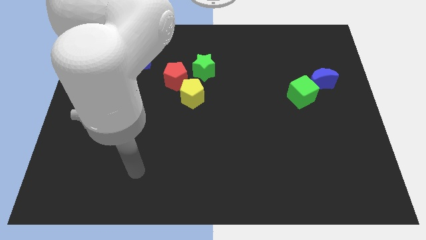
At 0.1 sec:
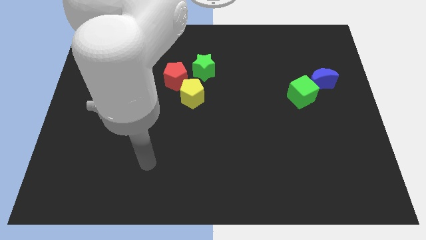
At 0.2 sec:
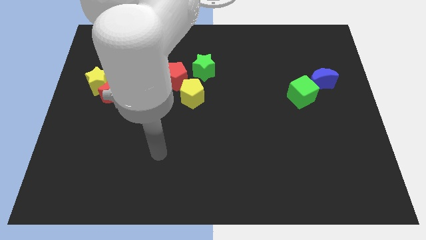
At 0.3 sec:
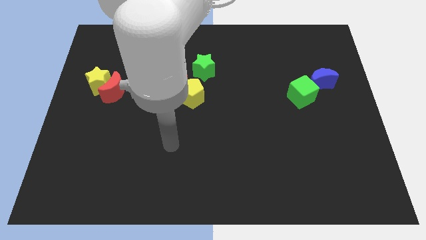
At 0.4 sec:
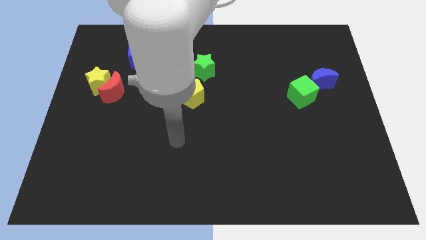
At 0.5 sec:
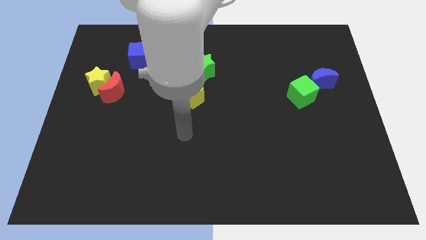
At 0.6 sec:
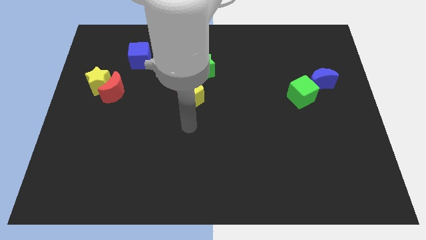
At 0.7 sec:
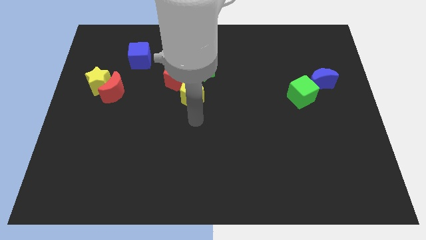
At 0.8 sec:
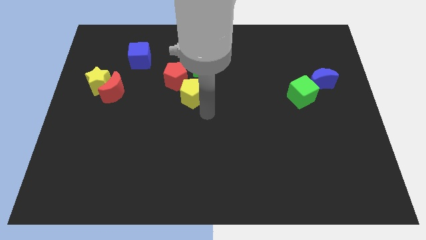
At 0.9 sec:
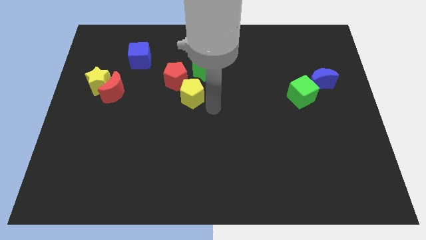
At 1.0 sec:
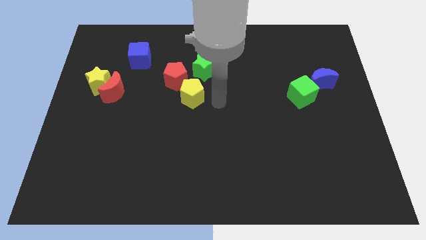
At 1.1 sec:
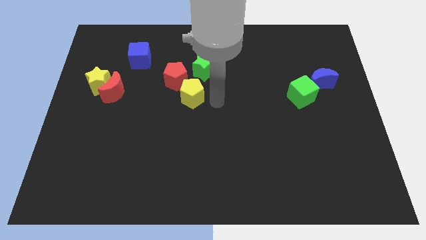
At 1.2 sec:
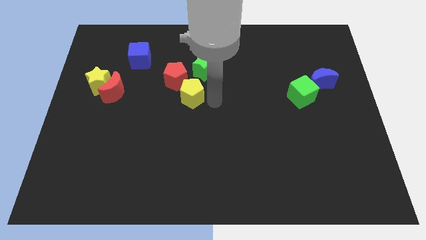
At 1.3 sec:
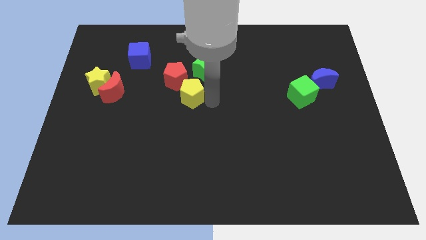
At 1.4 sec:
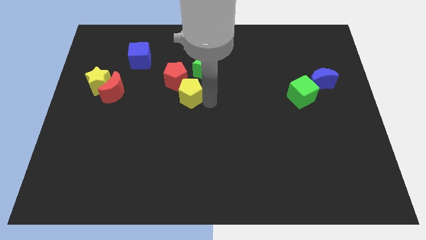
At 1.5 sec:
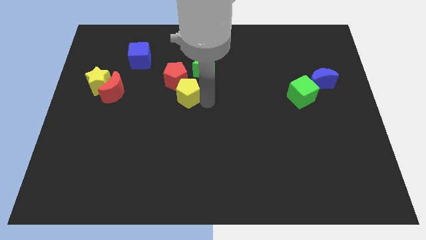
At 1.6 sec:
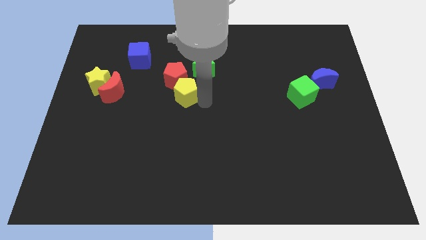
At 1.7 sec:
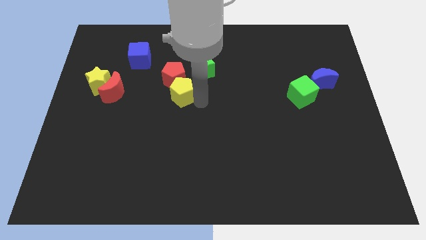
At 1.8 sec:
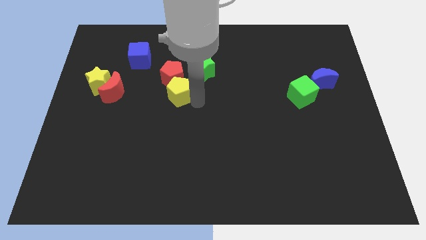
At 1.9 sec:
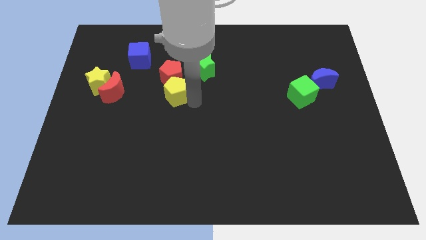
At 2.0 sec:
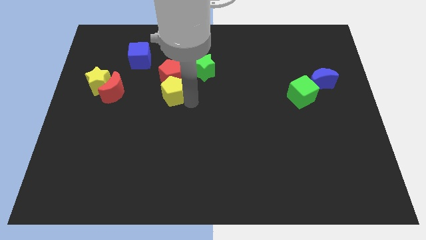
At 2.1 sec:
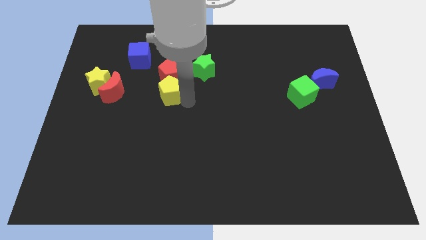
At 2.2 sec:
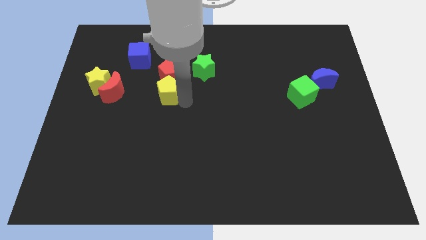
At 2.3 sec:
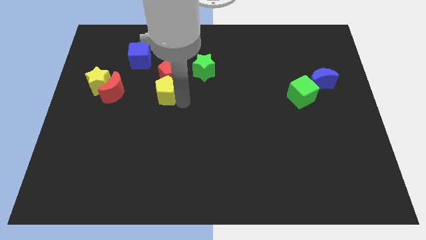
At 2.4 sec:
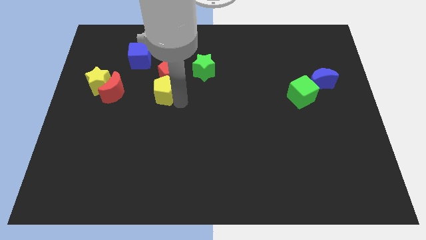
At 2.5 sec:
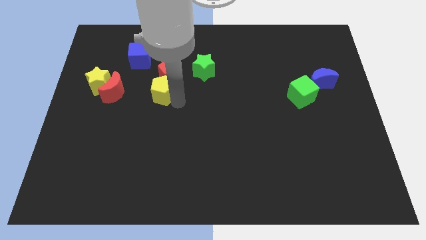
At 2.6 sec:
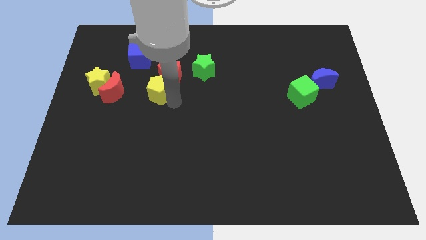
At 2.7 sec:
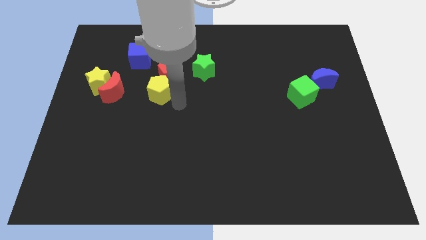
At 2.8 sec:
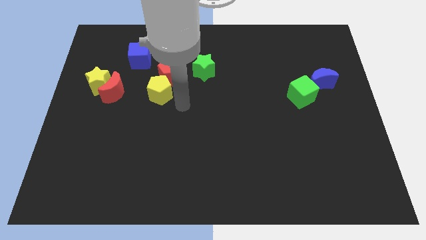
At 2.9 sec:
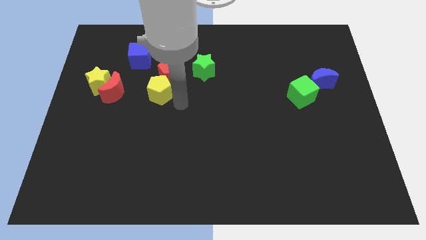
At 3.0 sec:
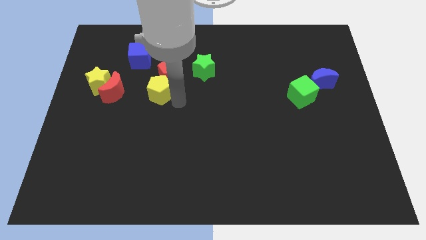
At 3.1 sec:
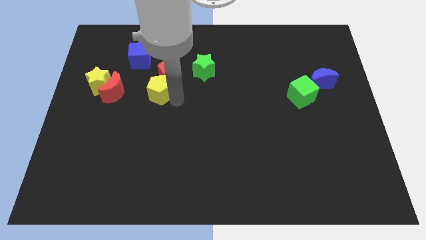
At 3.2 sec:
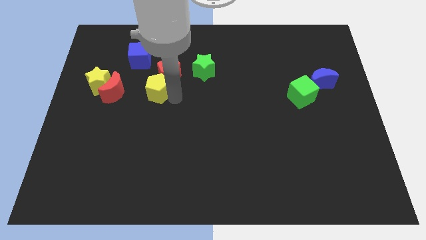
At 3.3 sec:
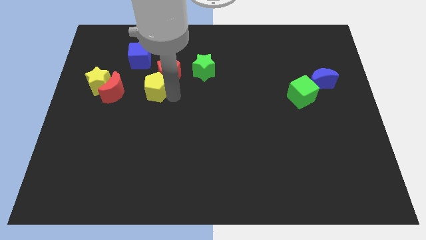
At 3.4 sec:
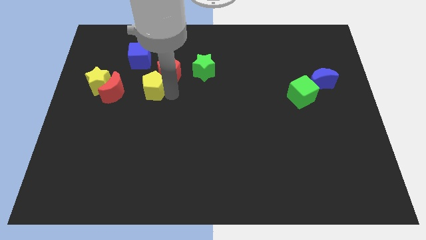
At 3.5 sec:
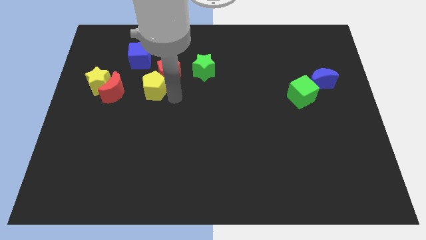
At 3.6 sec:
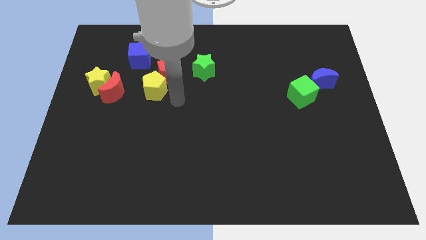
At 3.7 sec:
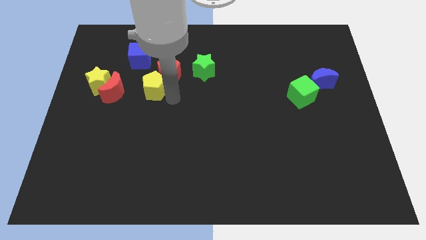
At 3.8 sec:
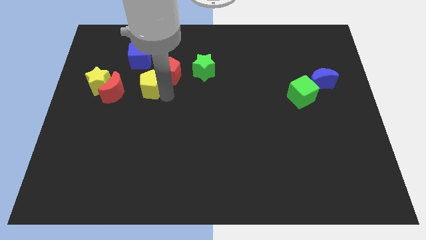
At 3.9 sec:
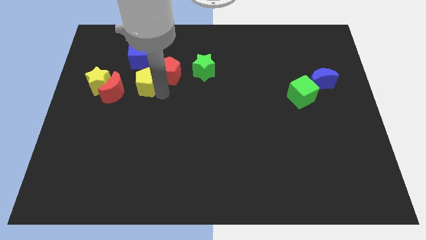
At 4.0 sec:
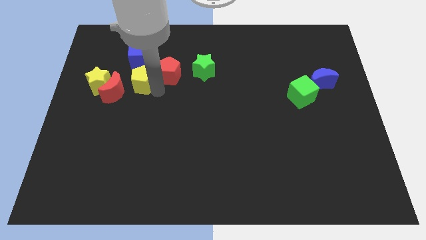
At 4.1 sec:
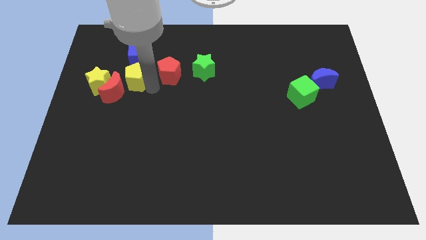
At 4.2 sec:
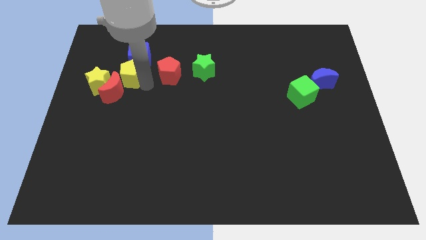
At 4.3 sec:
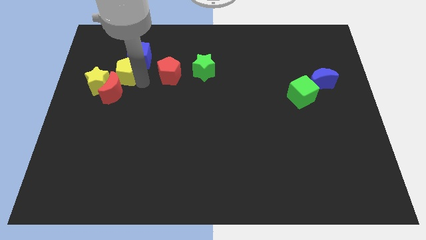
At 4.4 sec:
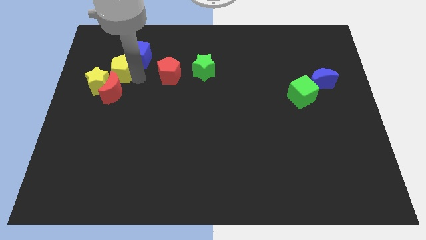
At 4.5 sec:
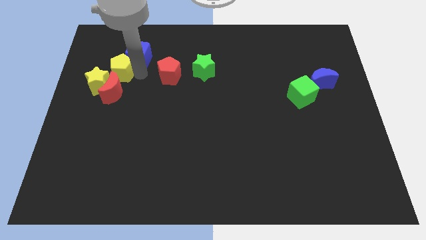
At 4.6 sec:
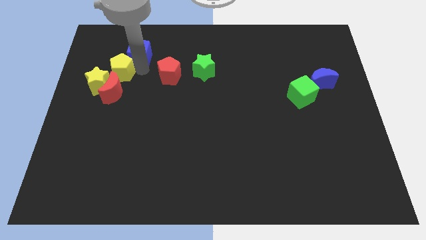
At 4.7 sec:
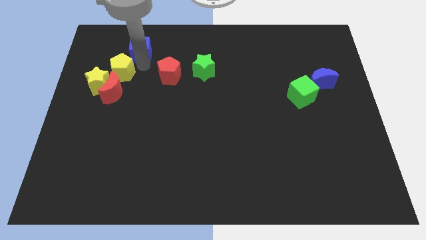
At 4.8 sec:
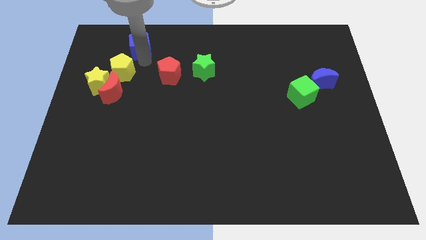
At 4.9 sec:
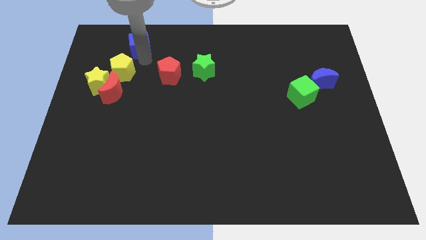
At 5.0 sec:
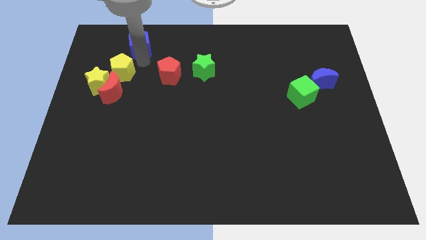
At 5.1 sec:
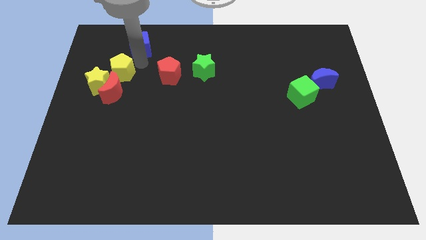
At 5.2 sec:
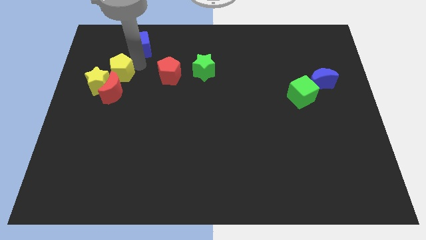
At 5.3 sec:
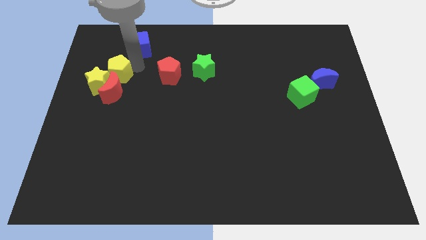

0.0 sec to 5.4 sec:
slide the yellow pentagon next to the yellow star

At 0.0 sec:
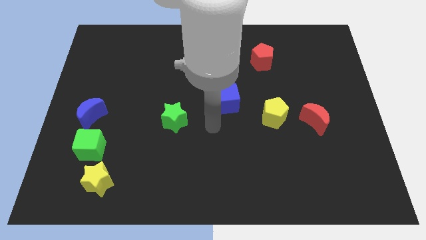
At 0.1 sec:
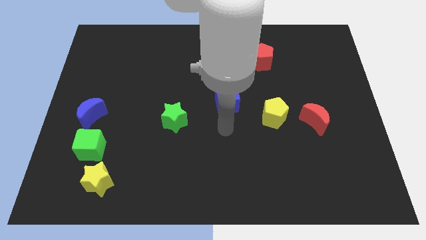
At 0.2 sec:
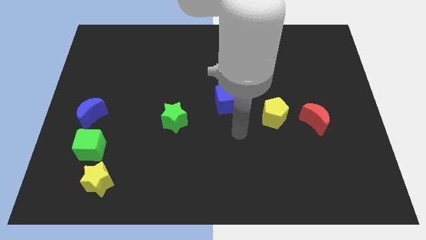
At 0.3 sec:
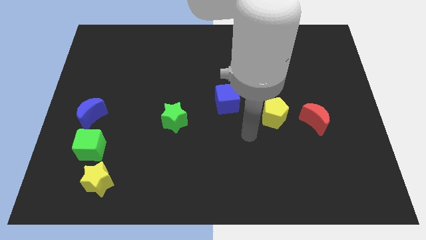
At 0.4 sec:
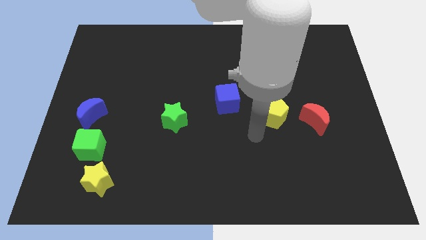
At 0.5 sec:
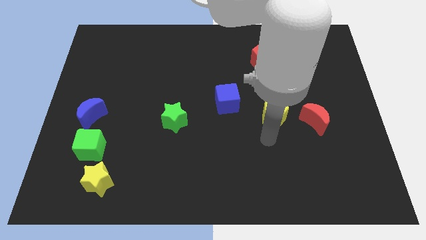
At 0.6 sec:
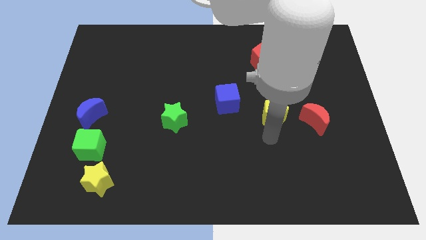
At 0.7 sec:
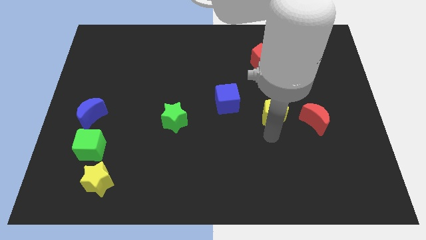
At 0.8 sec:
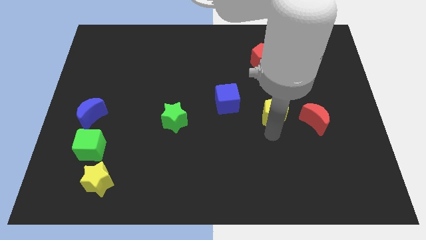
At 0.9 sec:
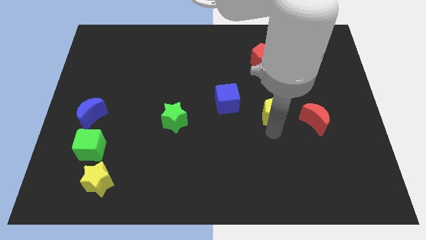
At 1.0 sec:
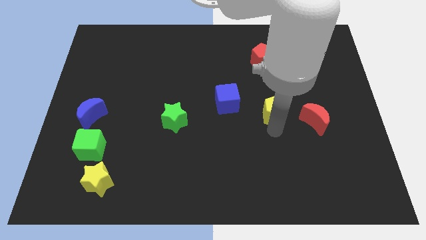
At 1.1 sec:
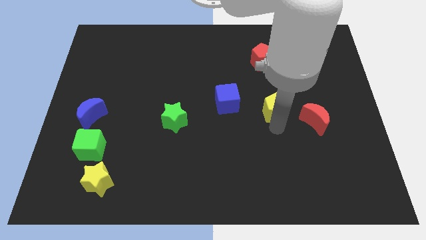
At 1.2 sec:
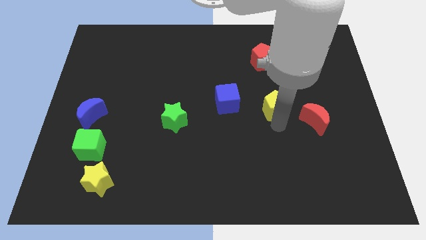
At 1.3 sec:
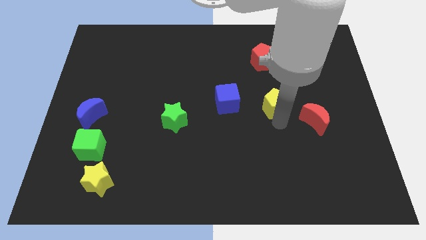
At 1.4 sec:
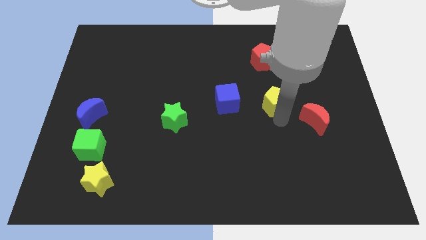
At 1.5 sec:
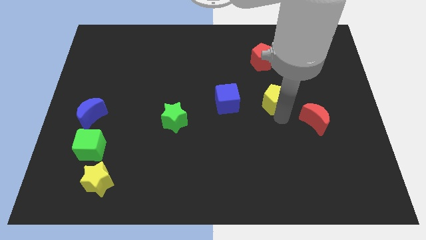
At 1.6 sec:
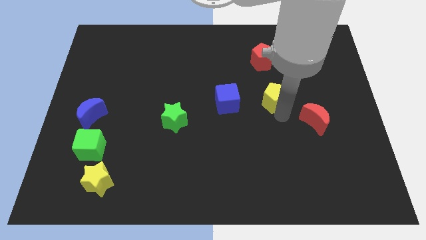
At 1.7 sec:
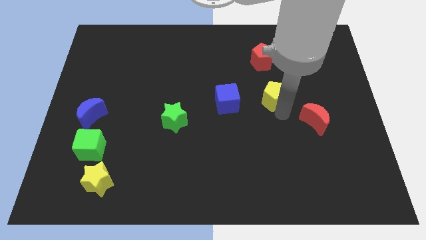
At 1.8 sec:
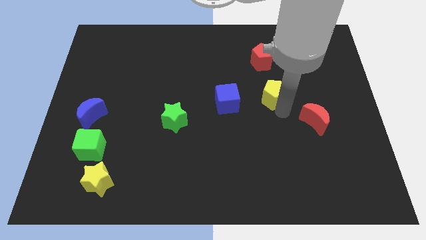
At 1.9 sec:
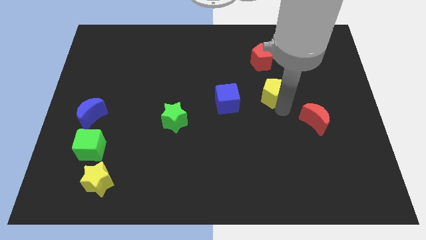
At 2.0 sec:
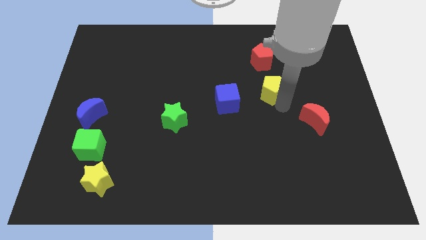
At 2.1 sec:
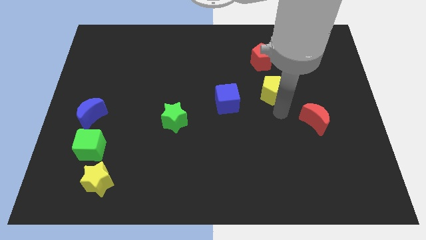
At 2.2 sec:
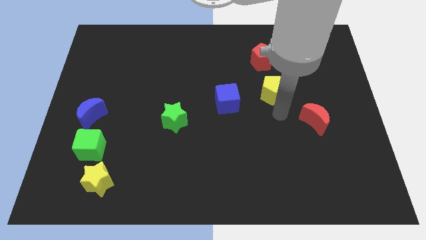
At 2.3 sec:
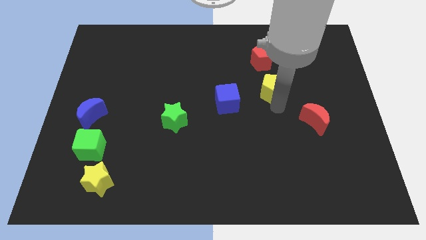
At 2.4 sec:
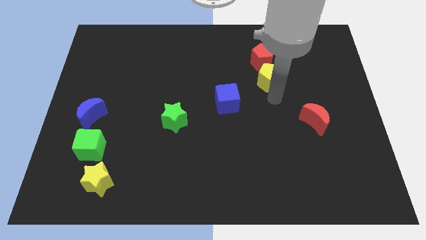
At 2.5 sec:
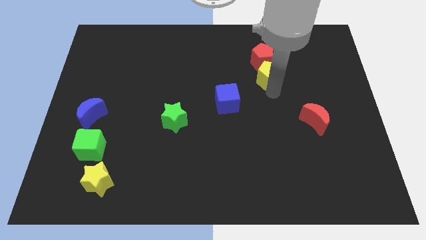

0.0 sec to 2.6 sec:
slide the yellow pentagon to the red pentagon
